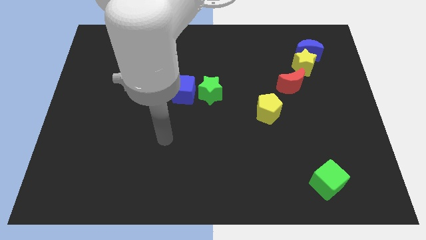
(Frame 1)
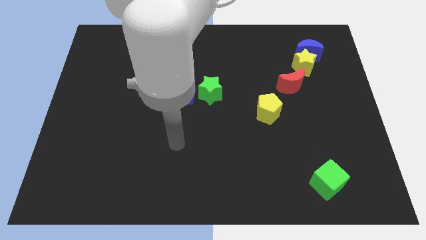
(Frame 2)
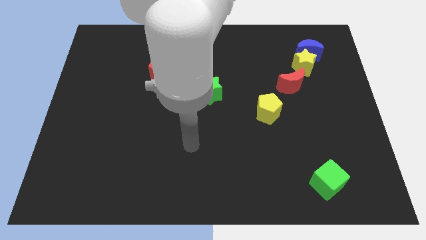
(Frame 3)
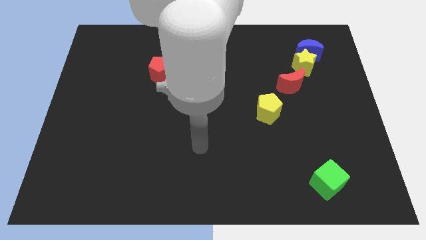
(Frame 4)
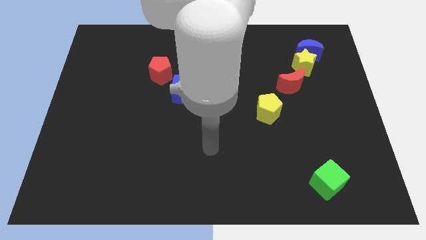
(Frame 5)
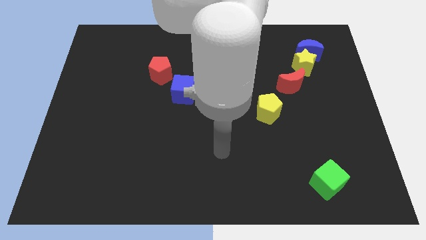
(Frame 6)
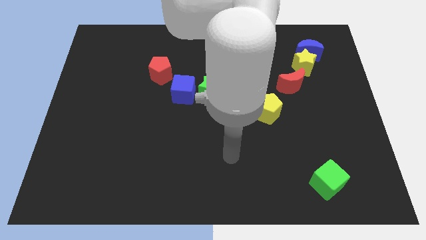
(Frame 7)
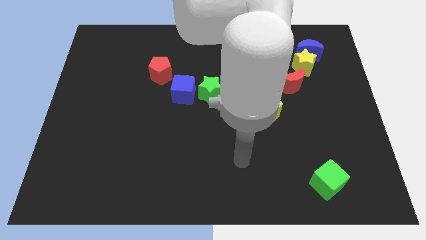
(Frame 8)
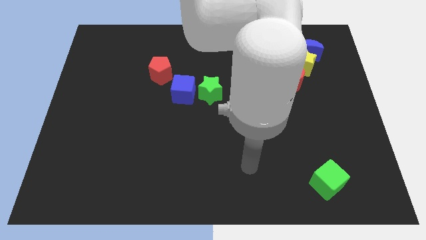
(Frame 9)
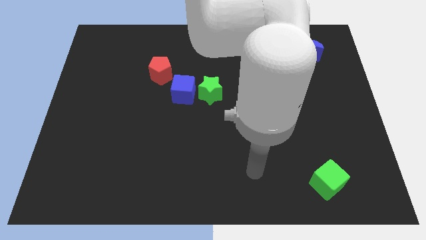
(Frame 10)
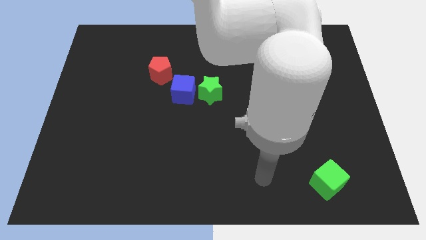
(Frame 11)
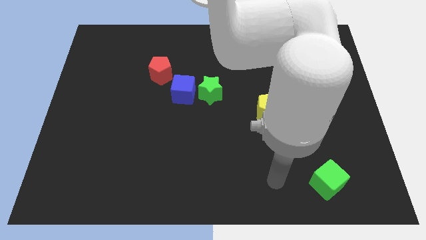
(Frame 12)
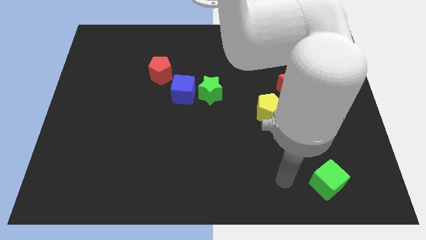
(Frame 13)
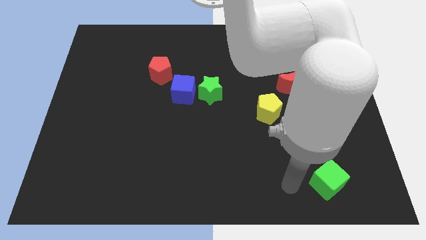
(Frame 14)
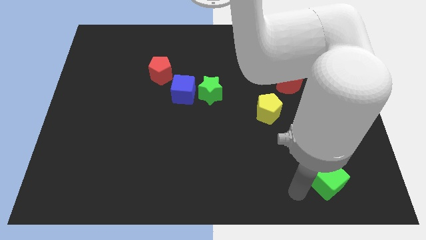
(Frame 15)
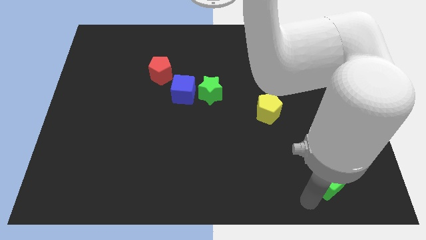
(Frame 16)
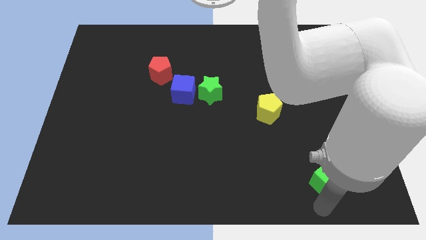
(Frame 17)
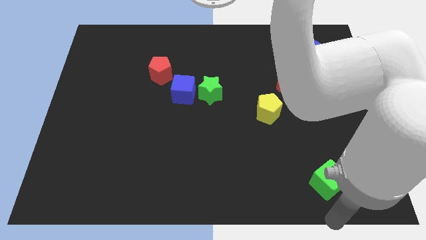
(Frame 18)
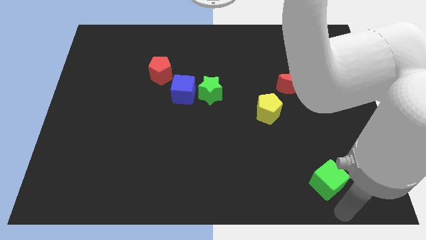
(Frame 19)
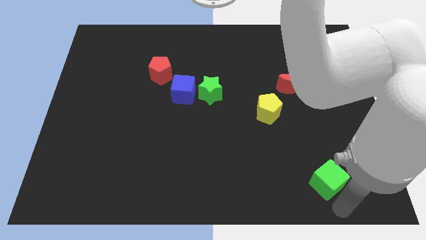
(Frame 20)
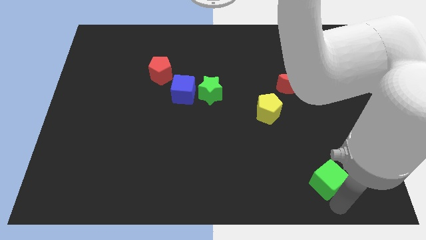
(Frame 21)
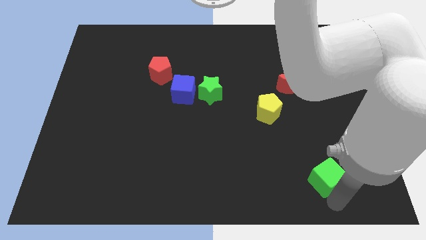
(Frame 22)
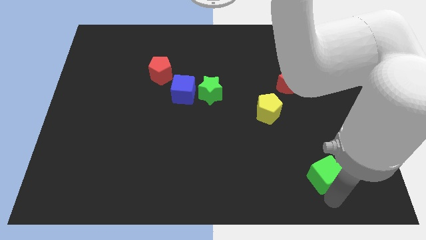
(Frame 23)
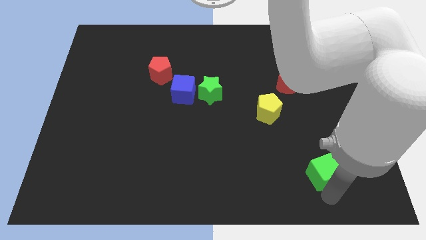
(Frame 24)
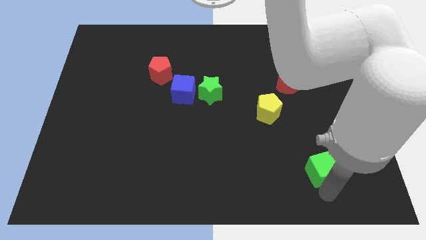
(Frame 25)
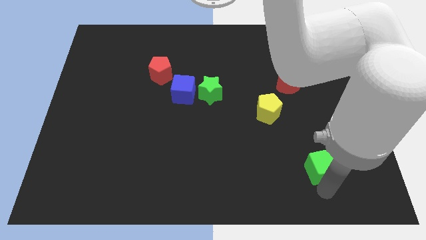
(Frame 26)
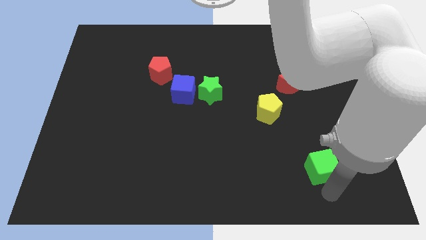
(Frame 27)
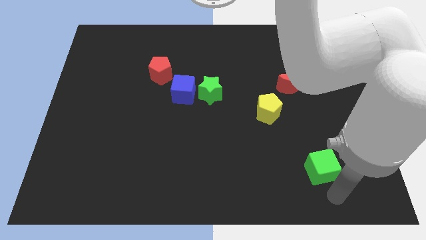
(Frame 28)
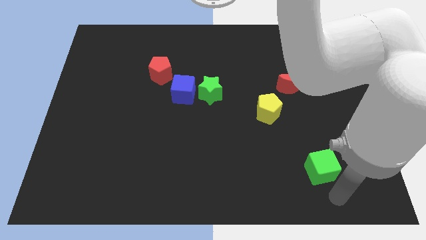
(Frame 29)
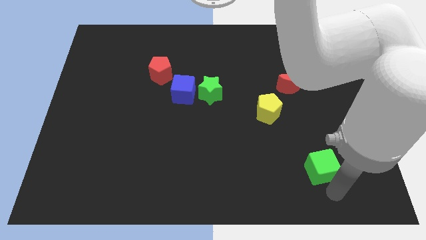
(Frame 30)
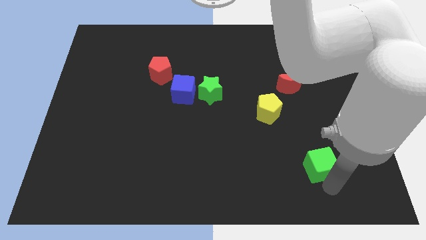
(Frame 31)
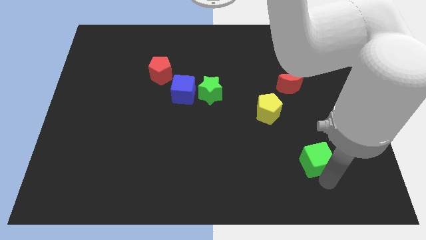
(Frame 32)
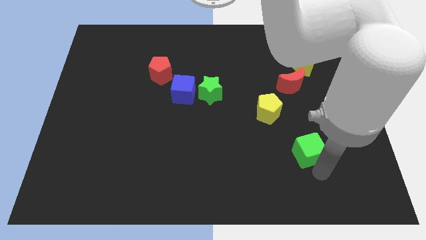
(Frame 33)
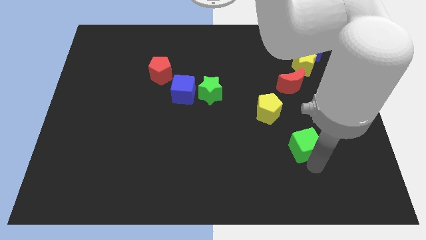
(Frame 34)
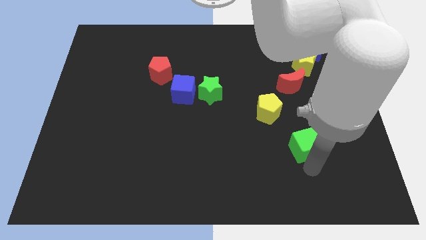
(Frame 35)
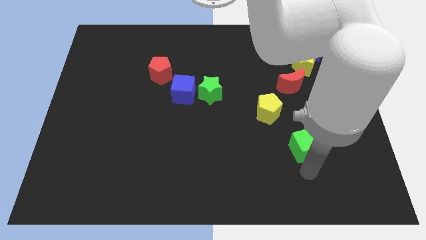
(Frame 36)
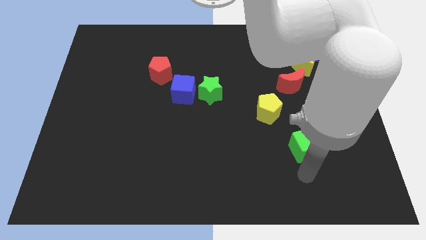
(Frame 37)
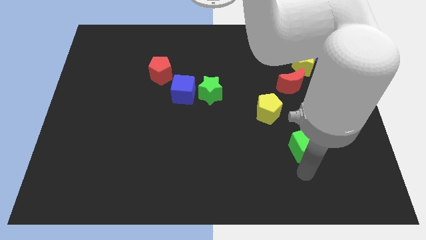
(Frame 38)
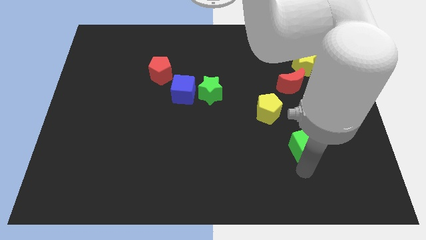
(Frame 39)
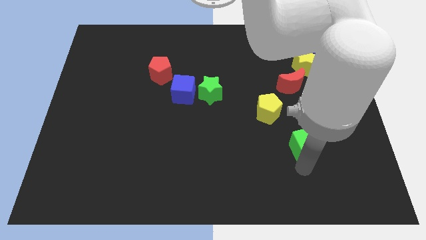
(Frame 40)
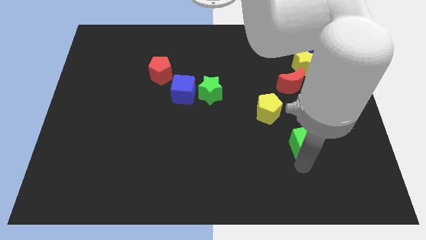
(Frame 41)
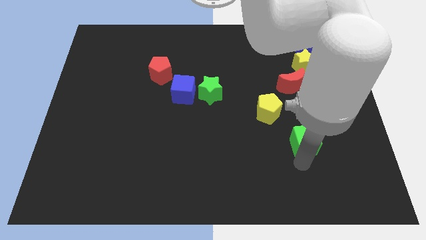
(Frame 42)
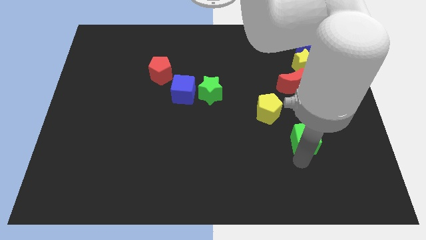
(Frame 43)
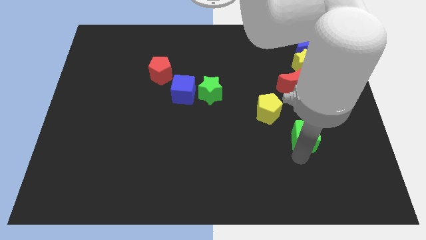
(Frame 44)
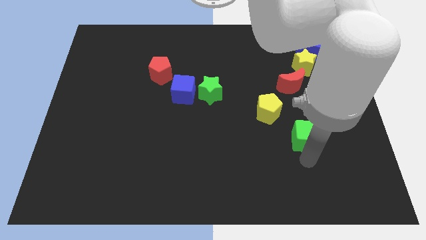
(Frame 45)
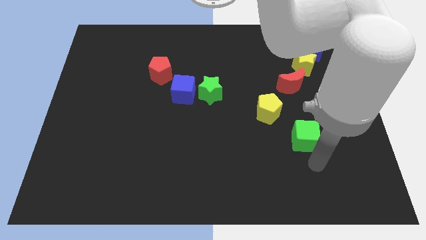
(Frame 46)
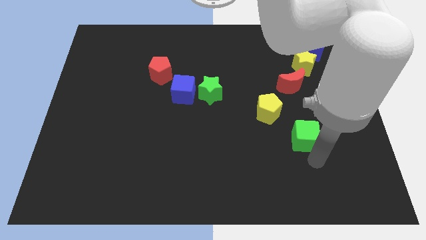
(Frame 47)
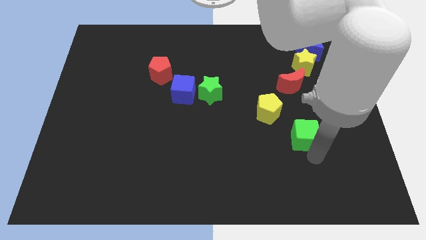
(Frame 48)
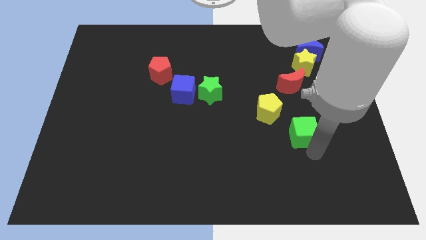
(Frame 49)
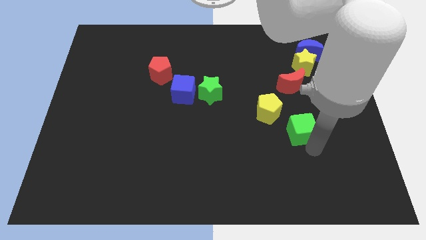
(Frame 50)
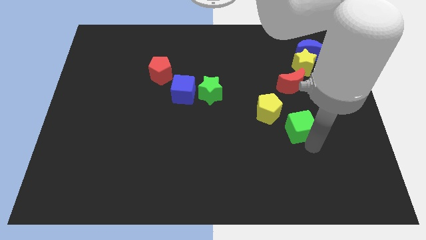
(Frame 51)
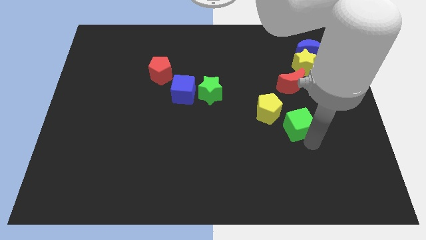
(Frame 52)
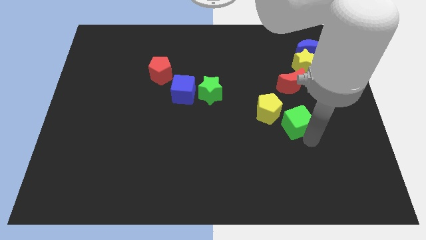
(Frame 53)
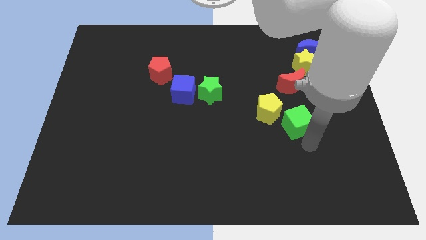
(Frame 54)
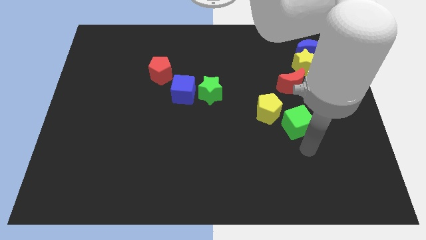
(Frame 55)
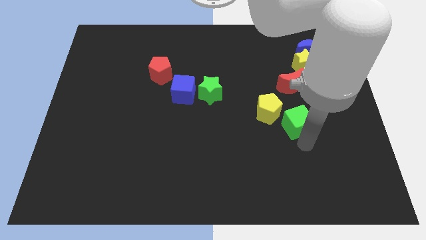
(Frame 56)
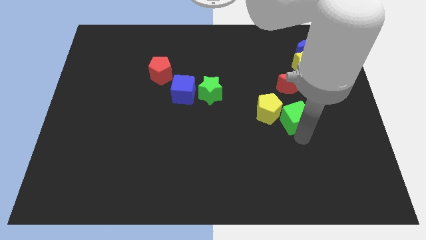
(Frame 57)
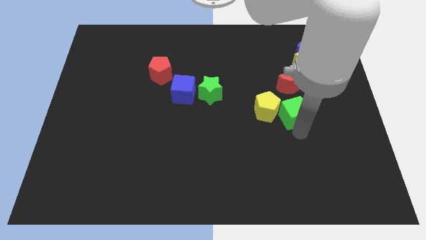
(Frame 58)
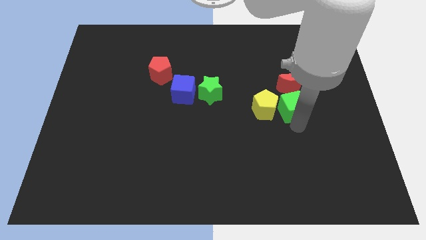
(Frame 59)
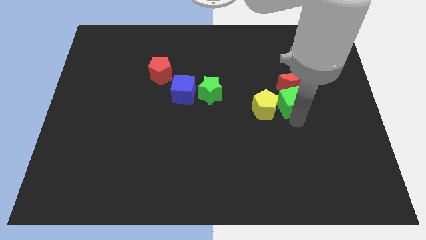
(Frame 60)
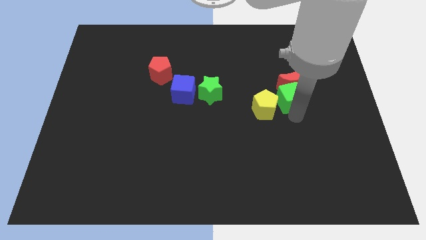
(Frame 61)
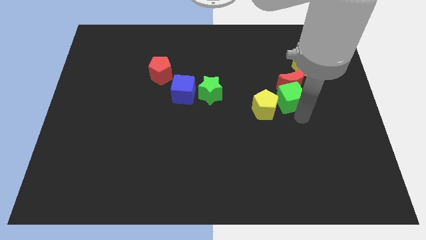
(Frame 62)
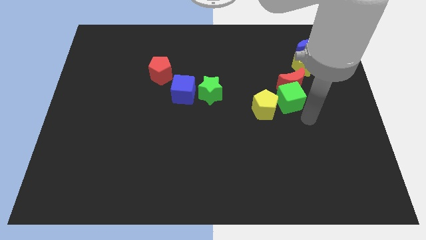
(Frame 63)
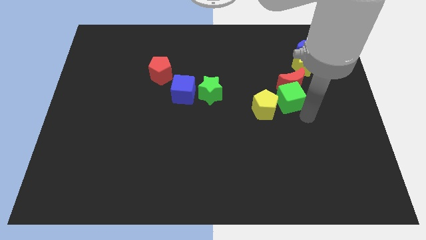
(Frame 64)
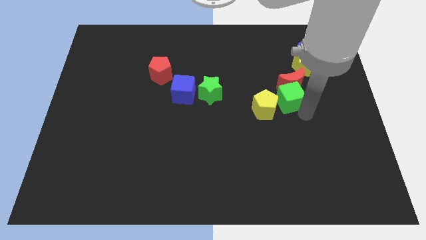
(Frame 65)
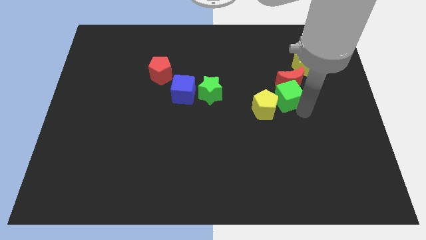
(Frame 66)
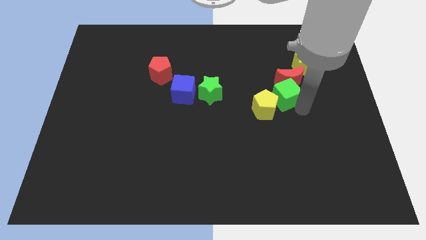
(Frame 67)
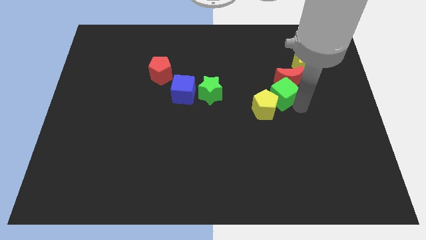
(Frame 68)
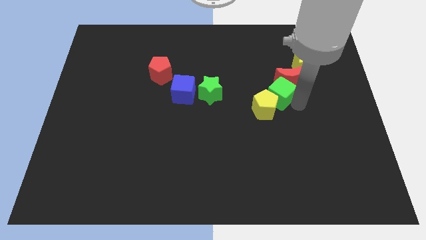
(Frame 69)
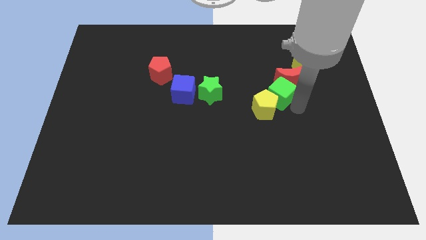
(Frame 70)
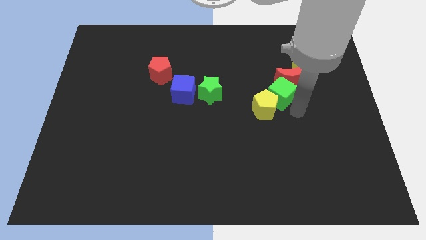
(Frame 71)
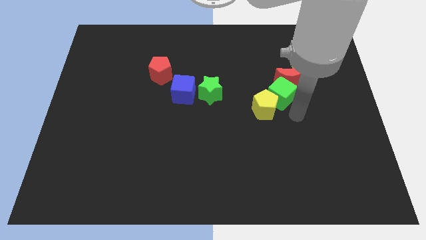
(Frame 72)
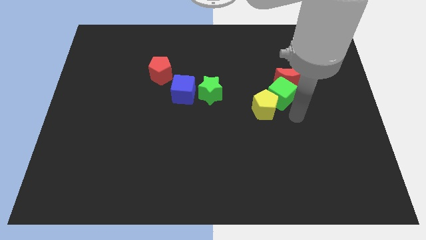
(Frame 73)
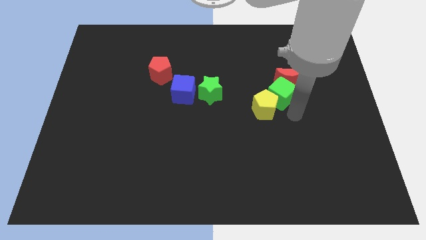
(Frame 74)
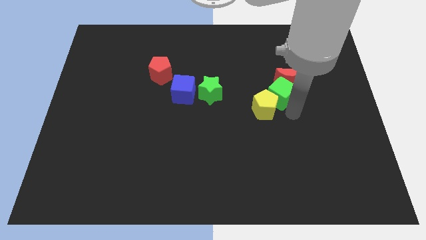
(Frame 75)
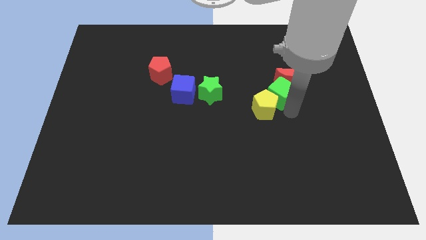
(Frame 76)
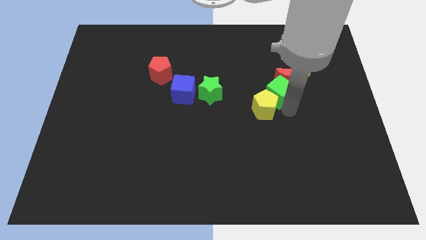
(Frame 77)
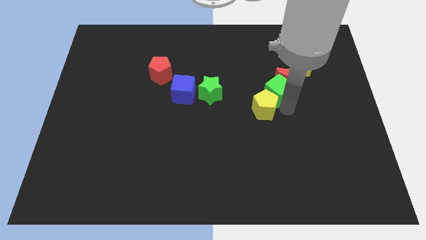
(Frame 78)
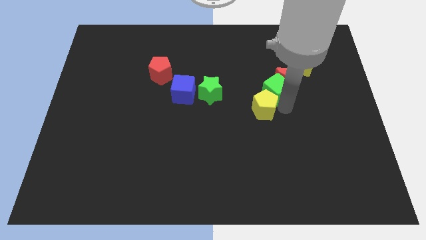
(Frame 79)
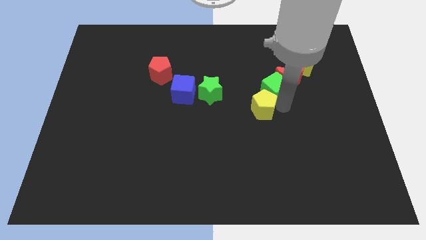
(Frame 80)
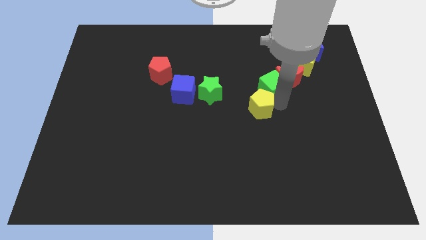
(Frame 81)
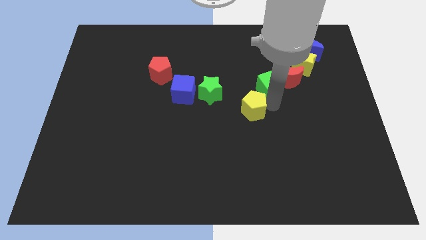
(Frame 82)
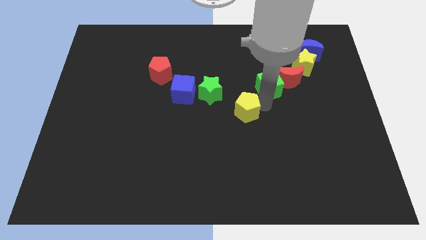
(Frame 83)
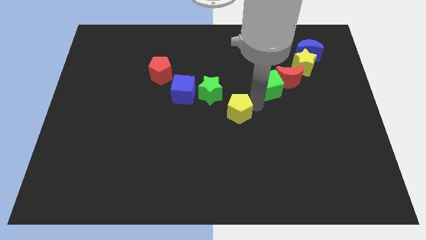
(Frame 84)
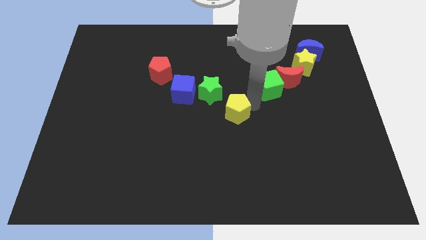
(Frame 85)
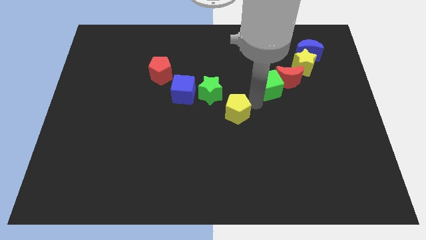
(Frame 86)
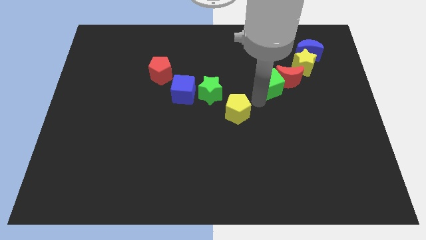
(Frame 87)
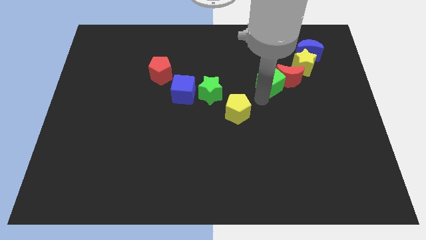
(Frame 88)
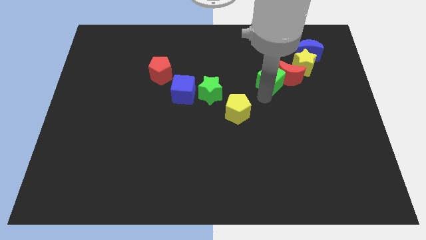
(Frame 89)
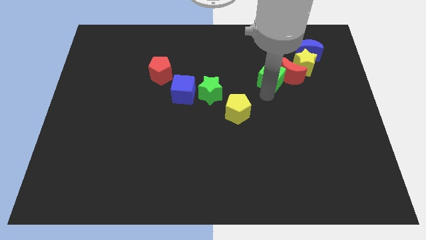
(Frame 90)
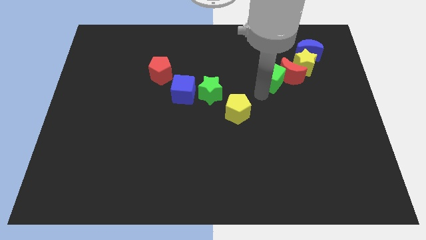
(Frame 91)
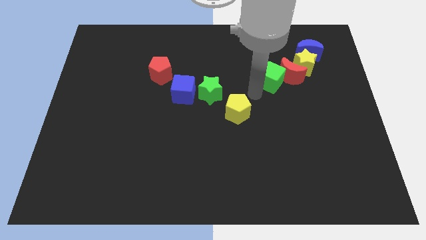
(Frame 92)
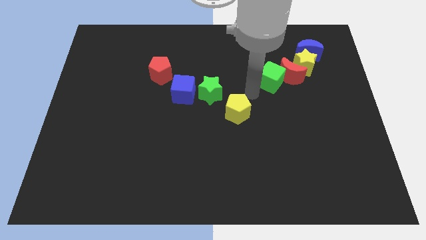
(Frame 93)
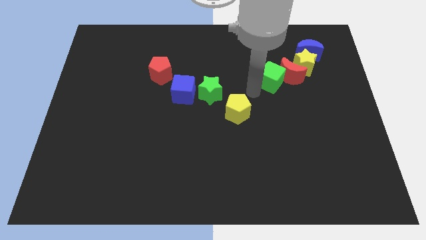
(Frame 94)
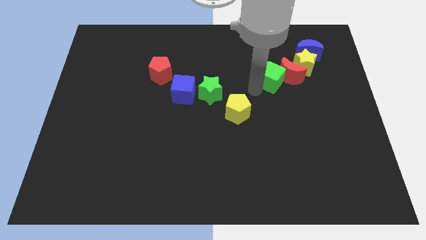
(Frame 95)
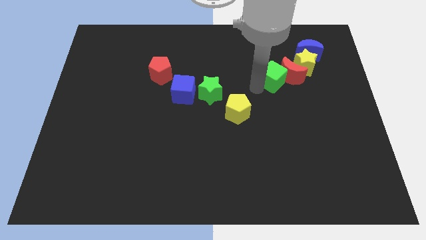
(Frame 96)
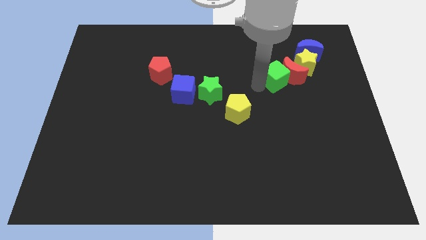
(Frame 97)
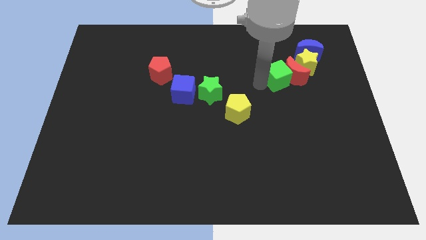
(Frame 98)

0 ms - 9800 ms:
move the green cube to the bottom left side of the blue moon
